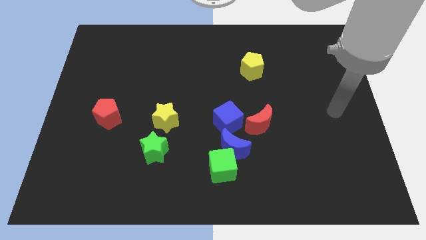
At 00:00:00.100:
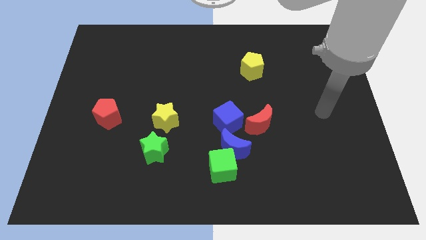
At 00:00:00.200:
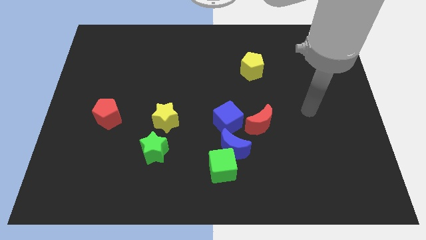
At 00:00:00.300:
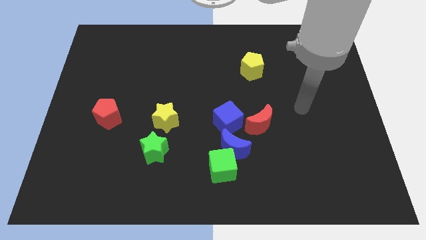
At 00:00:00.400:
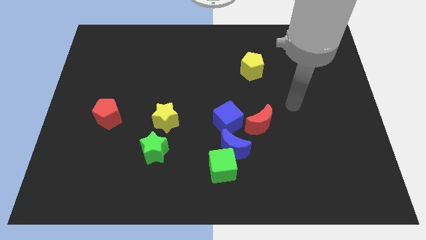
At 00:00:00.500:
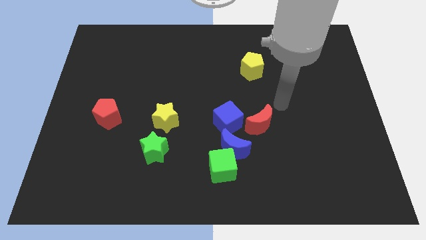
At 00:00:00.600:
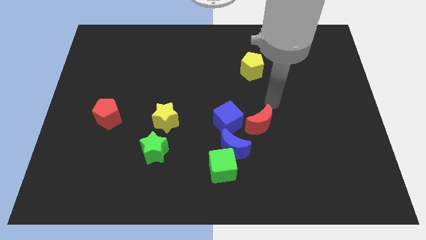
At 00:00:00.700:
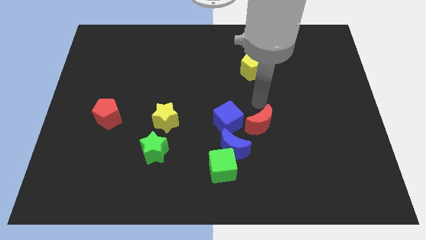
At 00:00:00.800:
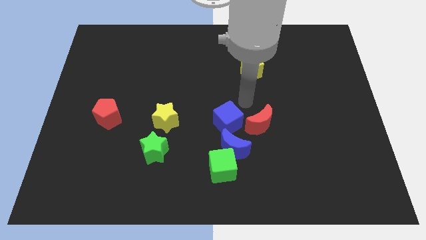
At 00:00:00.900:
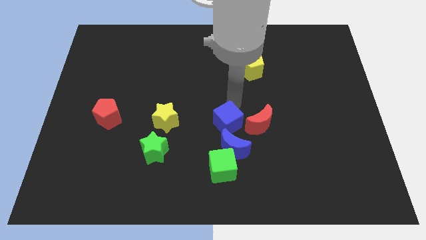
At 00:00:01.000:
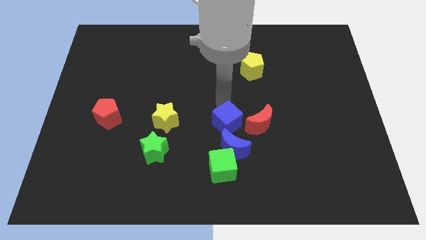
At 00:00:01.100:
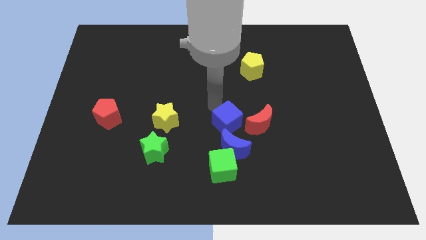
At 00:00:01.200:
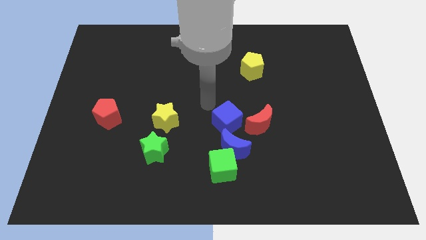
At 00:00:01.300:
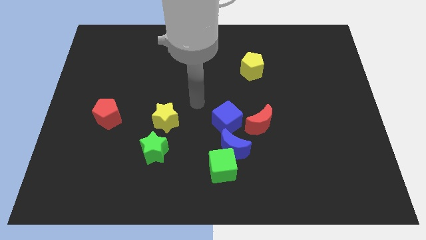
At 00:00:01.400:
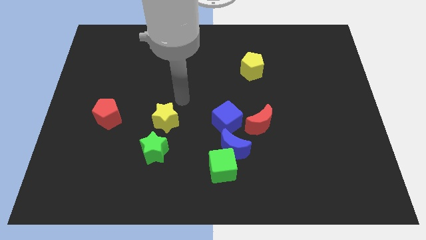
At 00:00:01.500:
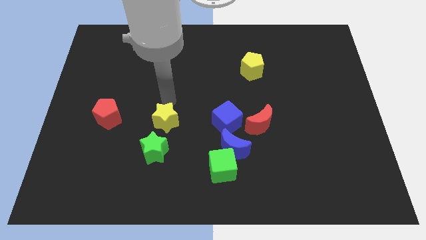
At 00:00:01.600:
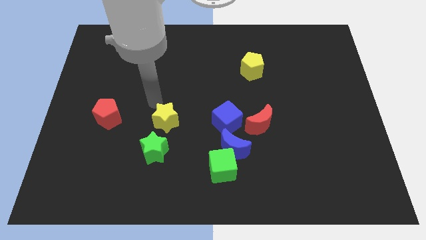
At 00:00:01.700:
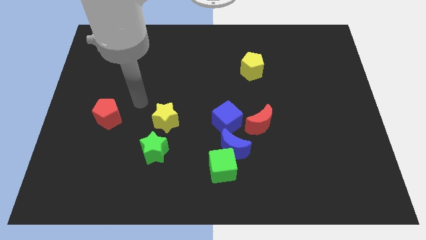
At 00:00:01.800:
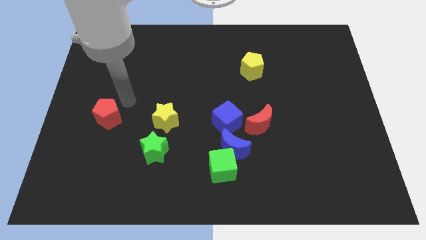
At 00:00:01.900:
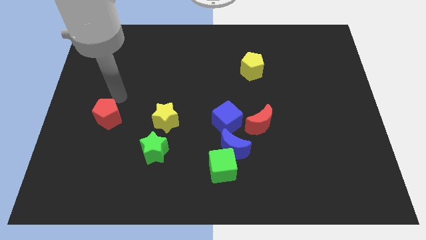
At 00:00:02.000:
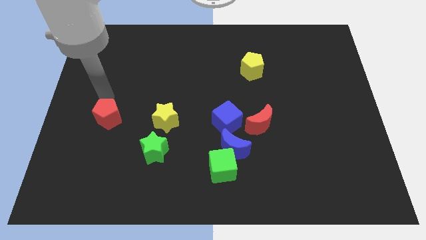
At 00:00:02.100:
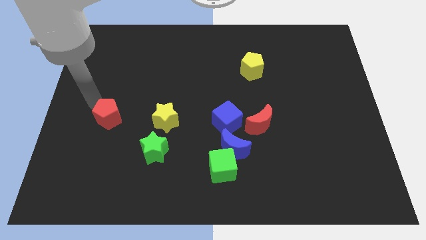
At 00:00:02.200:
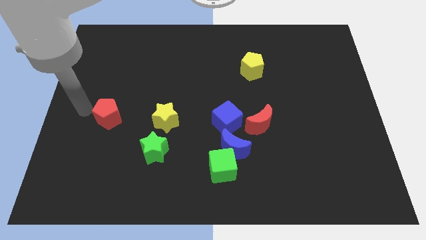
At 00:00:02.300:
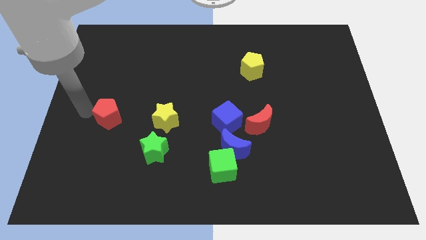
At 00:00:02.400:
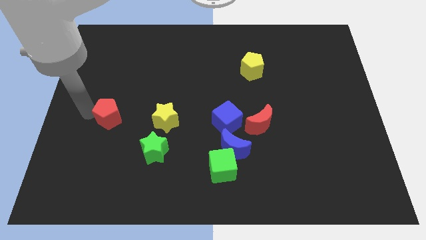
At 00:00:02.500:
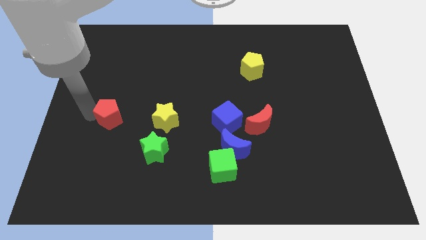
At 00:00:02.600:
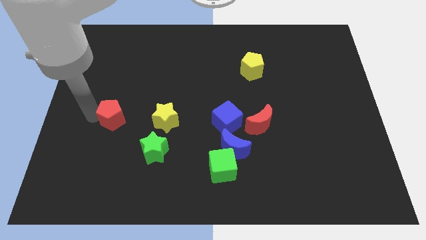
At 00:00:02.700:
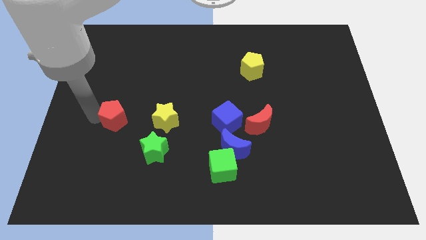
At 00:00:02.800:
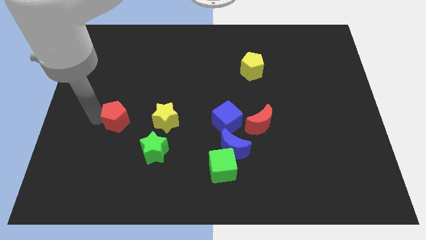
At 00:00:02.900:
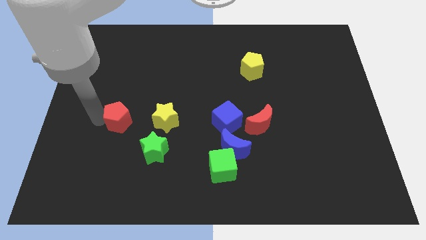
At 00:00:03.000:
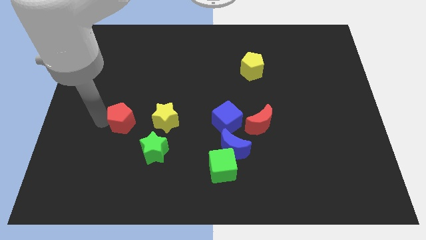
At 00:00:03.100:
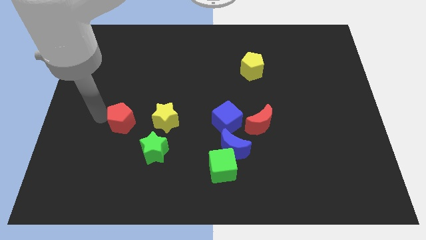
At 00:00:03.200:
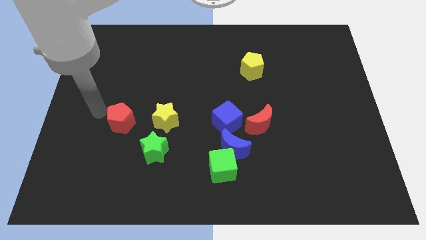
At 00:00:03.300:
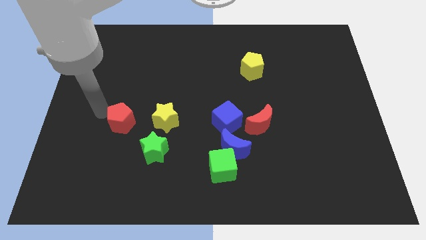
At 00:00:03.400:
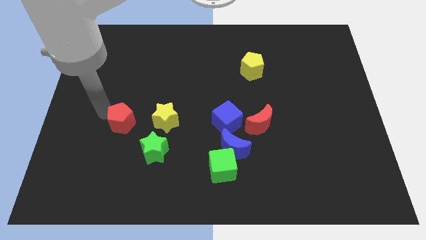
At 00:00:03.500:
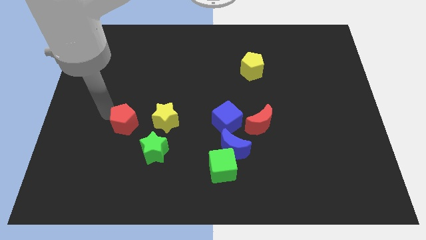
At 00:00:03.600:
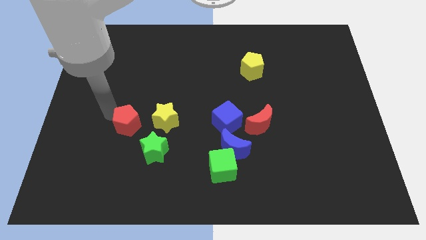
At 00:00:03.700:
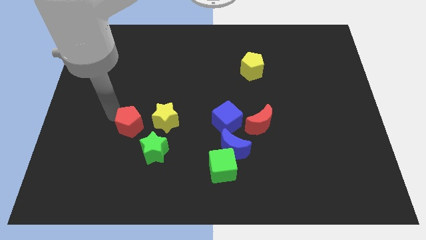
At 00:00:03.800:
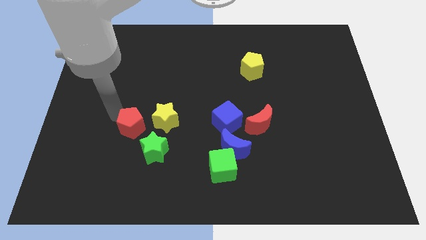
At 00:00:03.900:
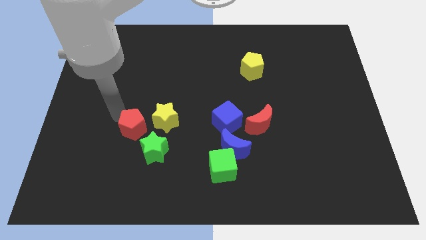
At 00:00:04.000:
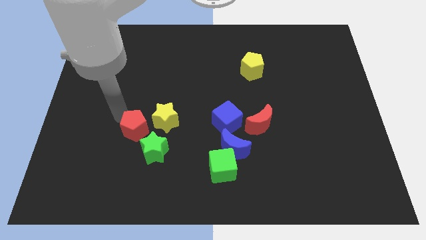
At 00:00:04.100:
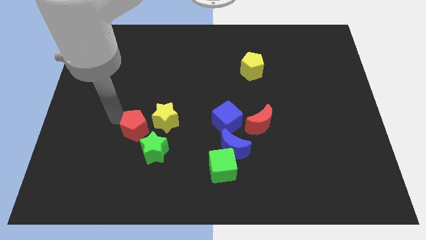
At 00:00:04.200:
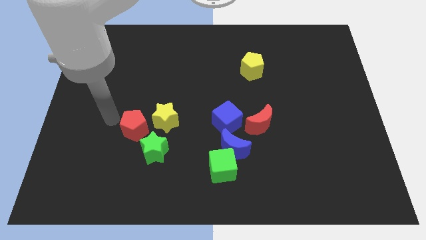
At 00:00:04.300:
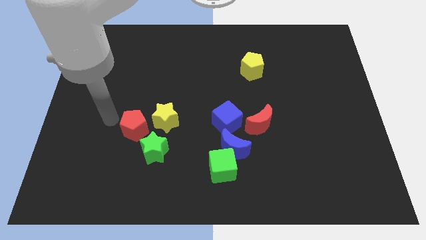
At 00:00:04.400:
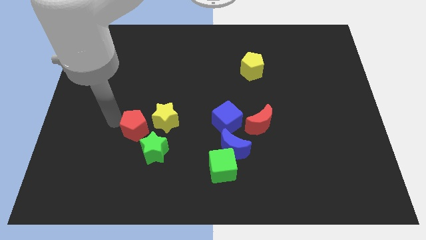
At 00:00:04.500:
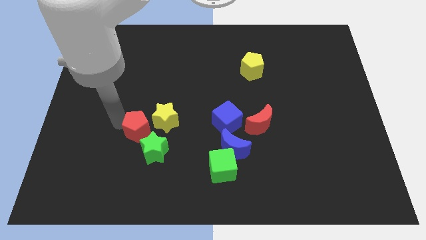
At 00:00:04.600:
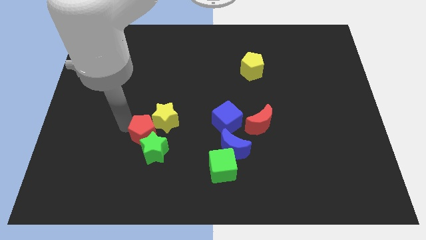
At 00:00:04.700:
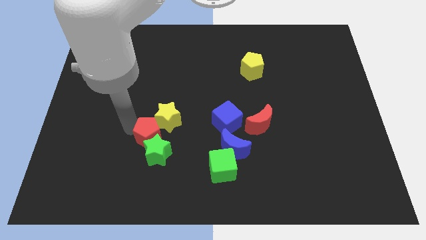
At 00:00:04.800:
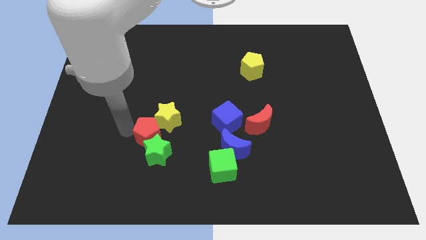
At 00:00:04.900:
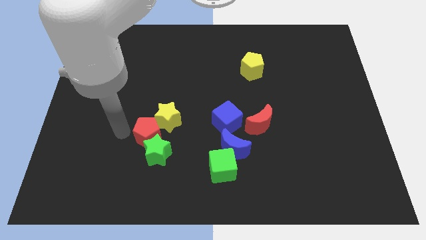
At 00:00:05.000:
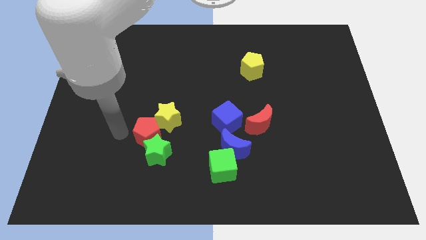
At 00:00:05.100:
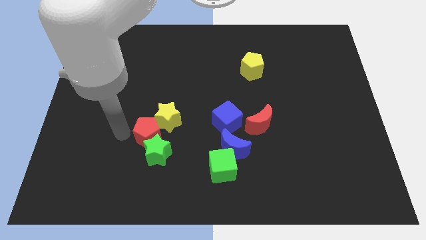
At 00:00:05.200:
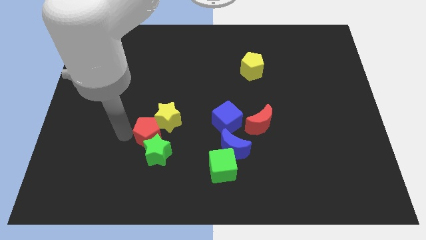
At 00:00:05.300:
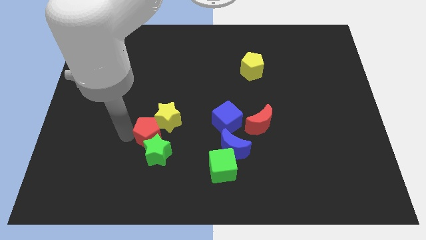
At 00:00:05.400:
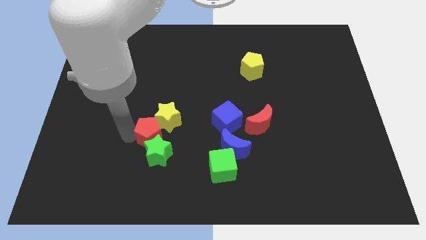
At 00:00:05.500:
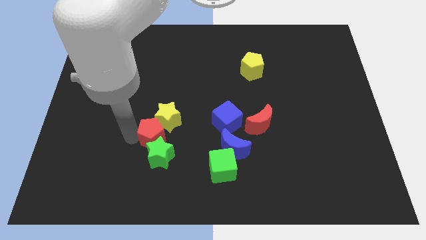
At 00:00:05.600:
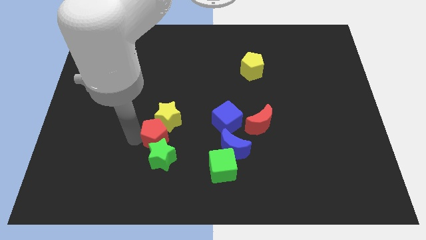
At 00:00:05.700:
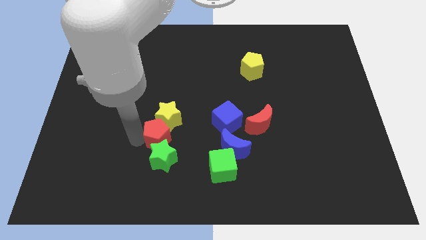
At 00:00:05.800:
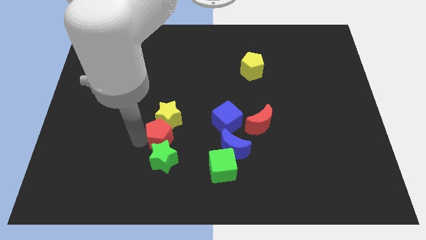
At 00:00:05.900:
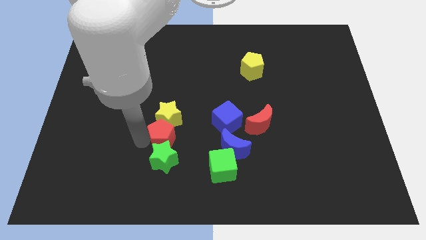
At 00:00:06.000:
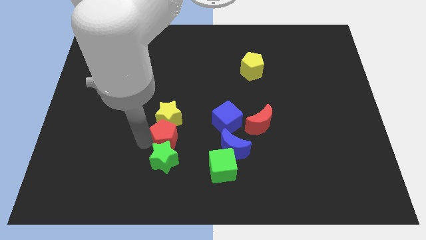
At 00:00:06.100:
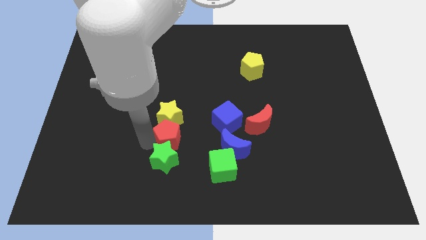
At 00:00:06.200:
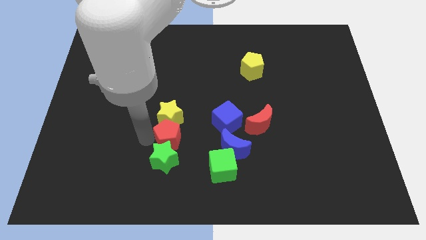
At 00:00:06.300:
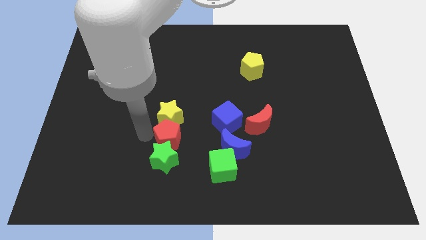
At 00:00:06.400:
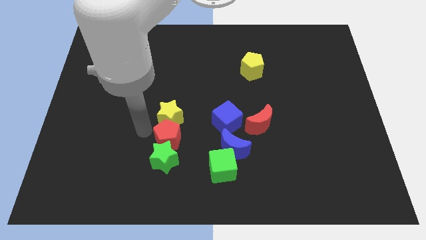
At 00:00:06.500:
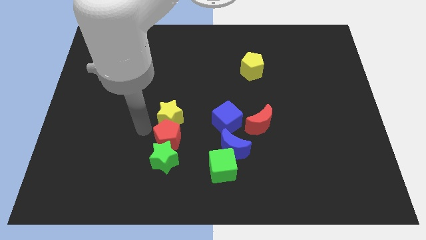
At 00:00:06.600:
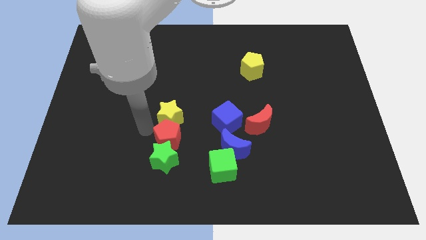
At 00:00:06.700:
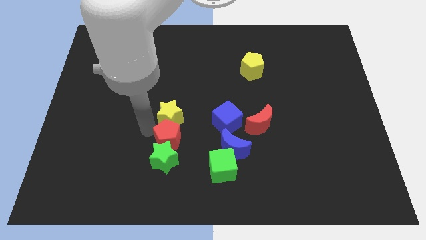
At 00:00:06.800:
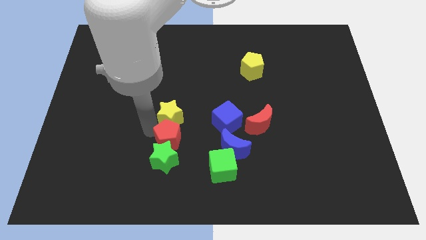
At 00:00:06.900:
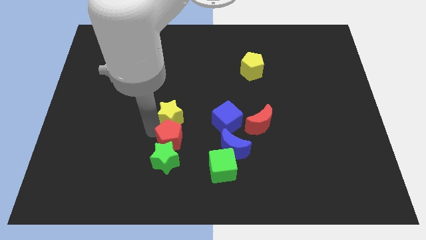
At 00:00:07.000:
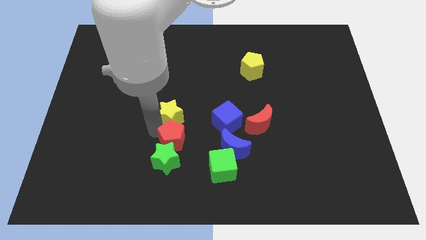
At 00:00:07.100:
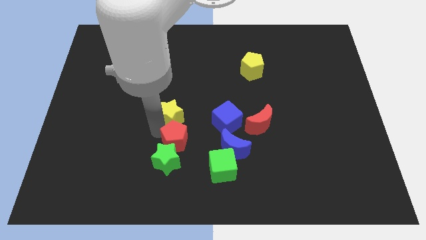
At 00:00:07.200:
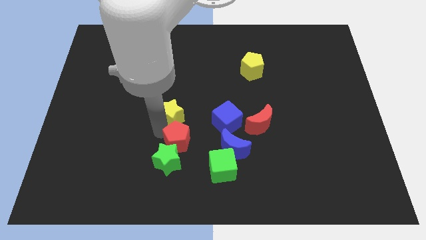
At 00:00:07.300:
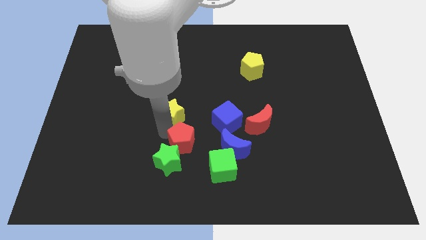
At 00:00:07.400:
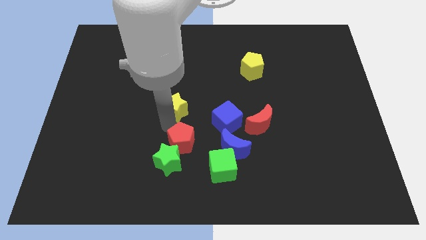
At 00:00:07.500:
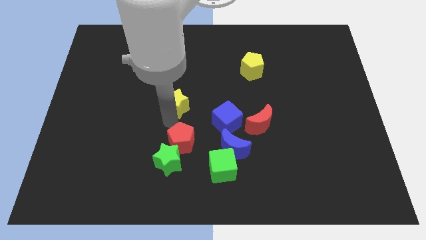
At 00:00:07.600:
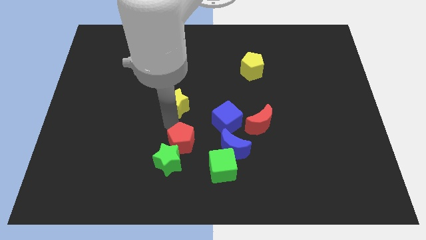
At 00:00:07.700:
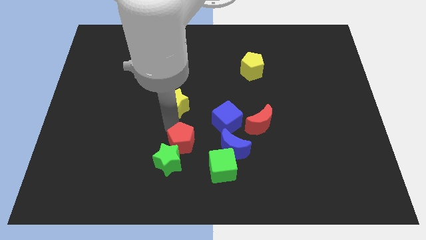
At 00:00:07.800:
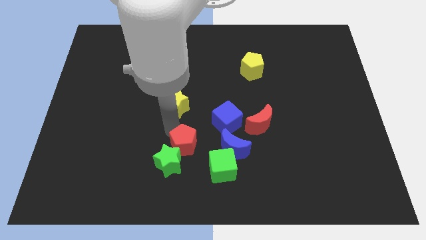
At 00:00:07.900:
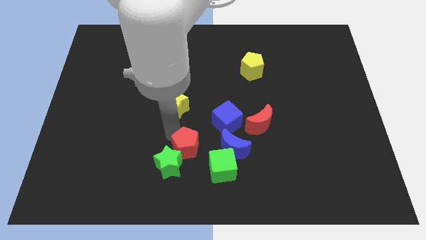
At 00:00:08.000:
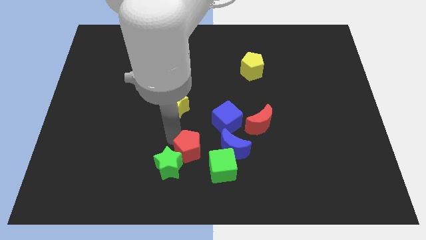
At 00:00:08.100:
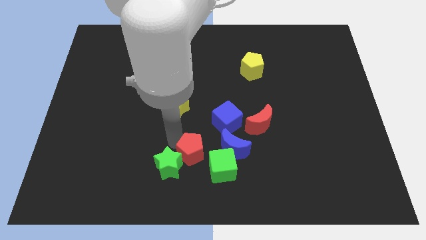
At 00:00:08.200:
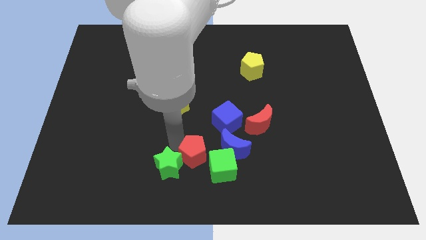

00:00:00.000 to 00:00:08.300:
push the red pentagon to the bottom
